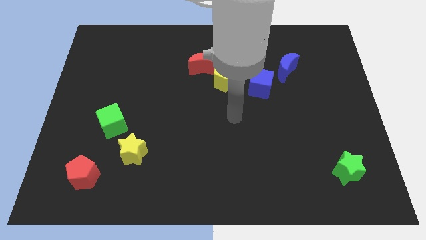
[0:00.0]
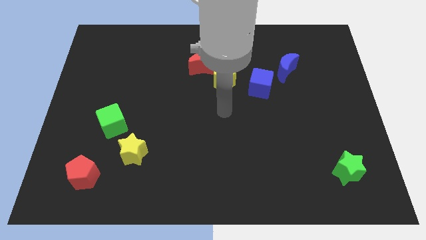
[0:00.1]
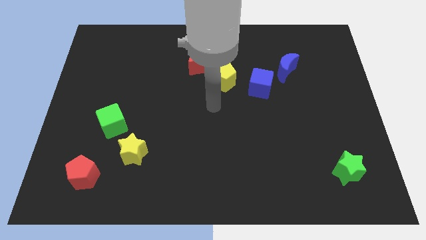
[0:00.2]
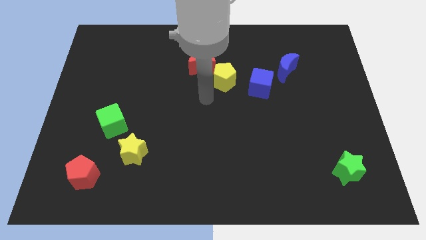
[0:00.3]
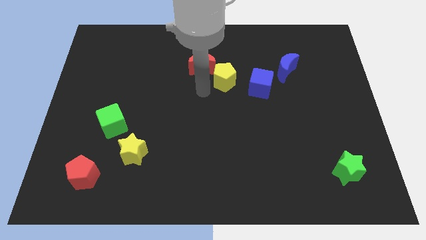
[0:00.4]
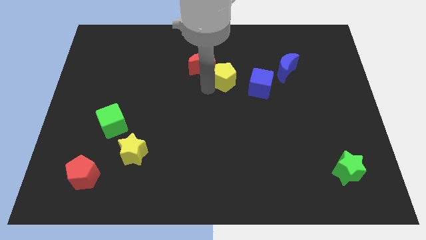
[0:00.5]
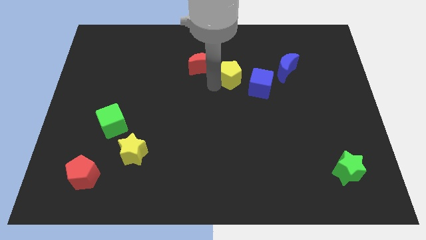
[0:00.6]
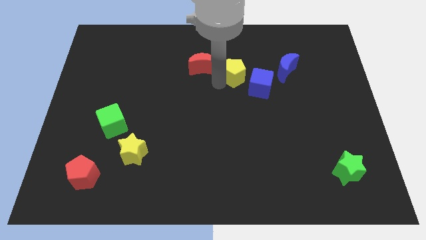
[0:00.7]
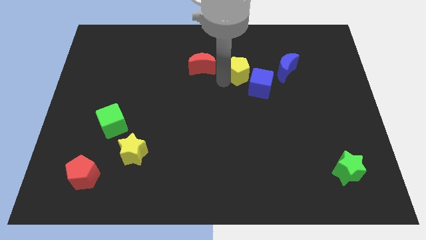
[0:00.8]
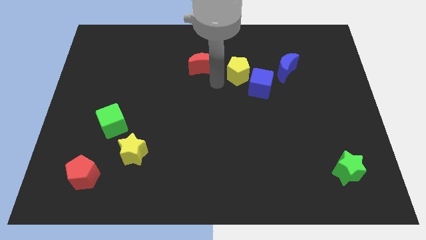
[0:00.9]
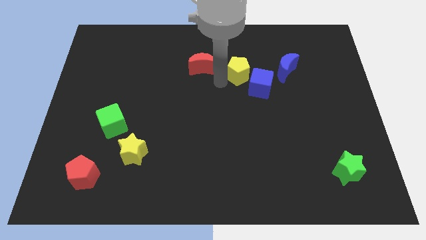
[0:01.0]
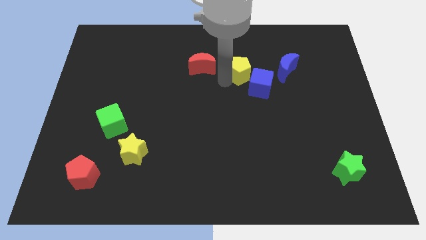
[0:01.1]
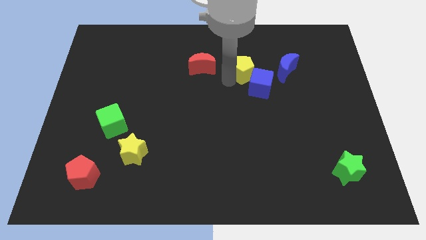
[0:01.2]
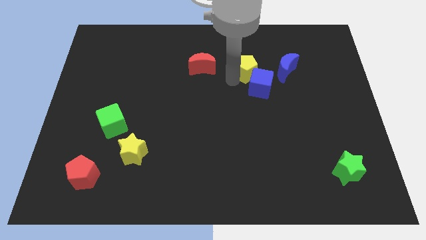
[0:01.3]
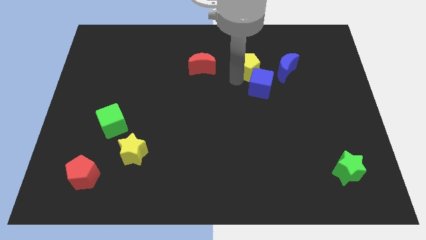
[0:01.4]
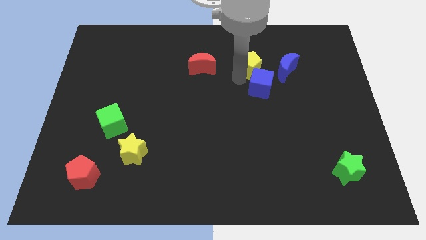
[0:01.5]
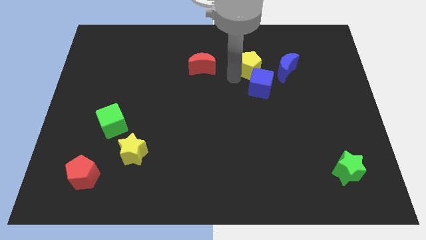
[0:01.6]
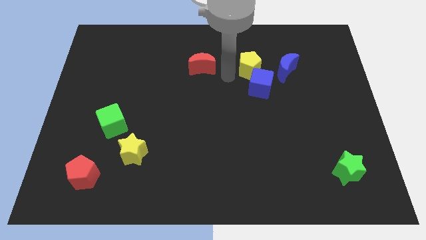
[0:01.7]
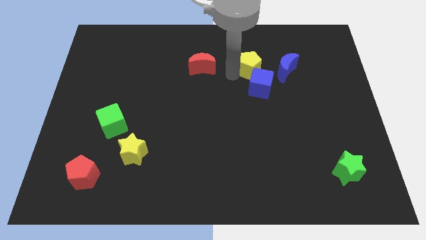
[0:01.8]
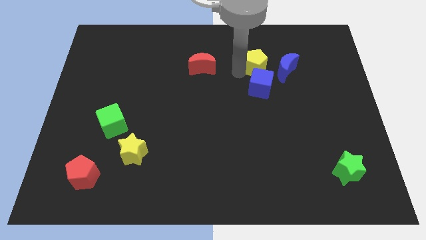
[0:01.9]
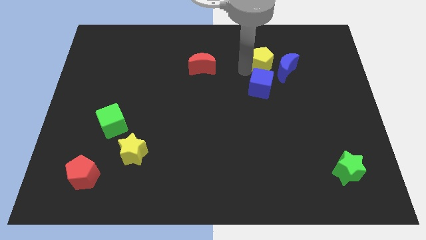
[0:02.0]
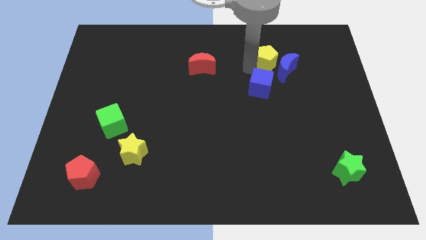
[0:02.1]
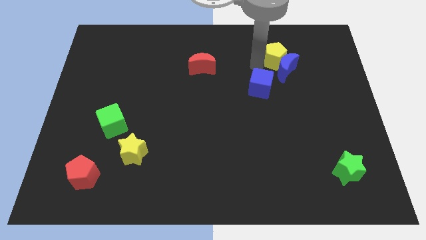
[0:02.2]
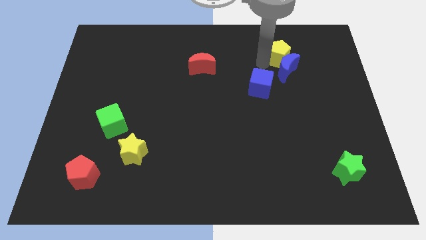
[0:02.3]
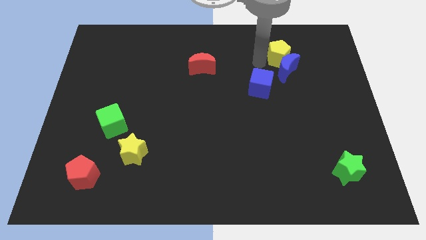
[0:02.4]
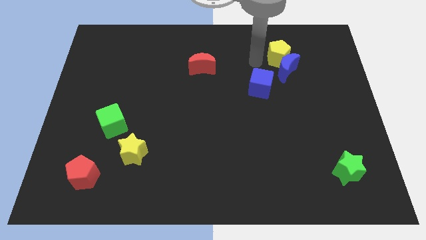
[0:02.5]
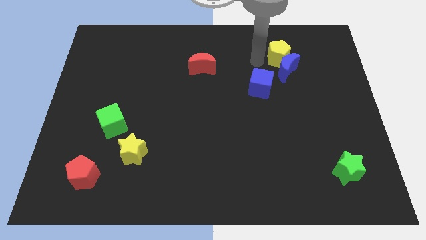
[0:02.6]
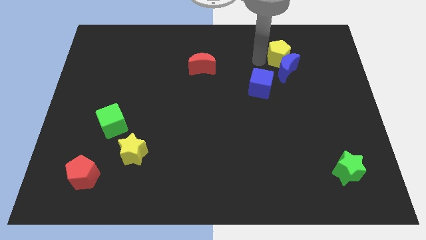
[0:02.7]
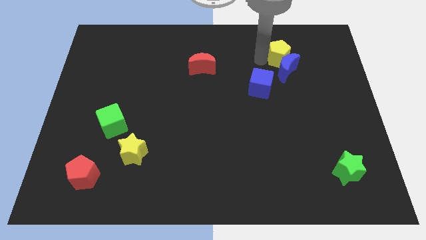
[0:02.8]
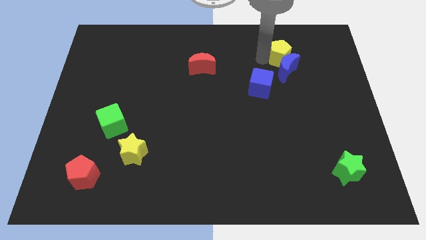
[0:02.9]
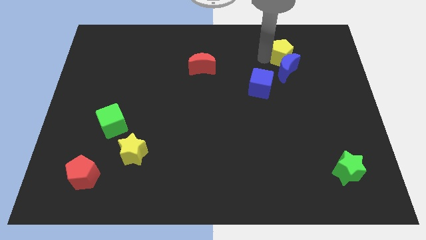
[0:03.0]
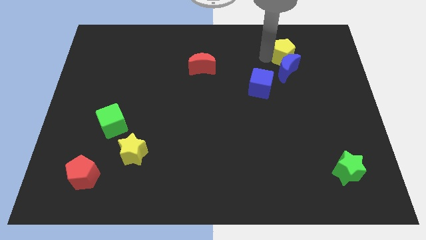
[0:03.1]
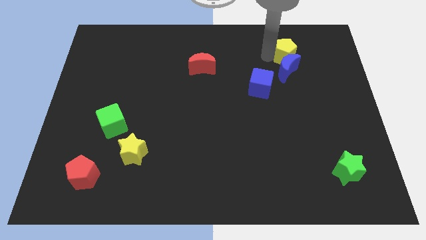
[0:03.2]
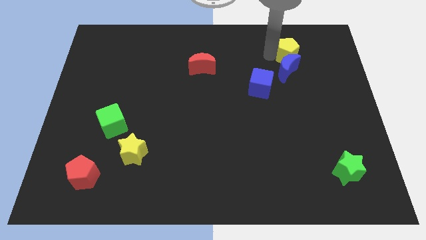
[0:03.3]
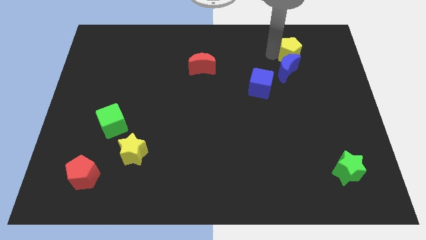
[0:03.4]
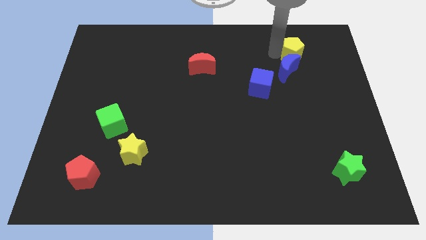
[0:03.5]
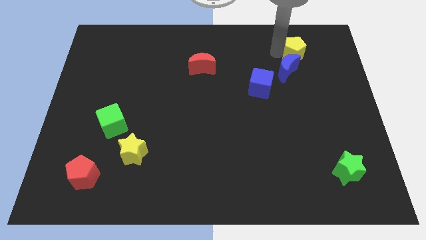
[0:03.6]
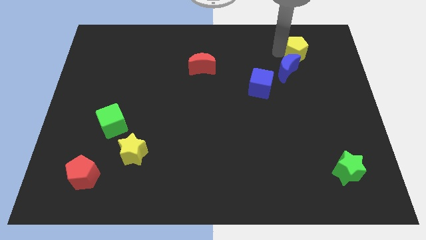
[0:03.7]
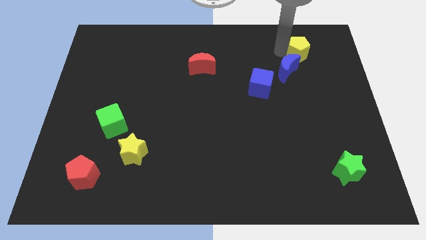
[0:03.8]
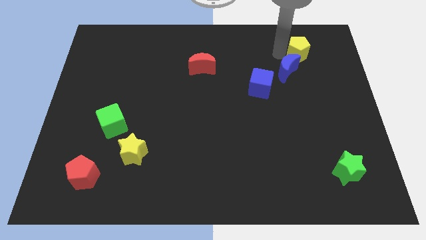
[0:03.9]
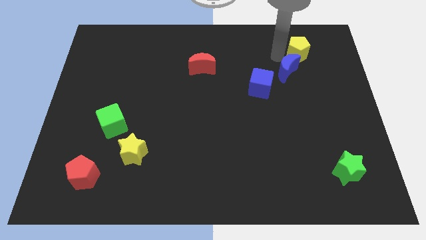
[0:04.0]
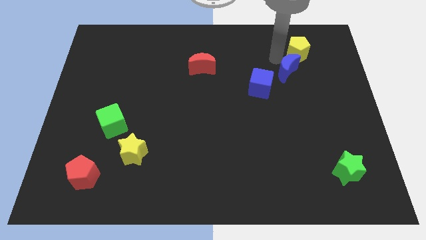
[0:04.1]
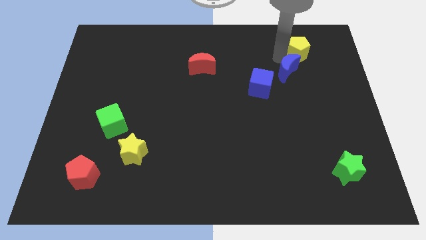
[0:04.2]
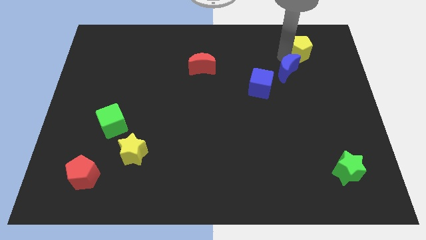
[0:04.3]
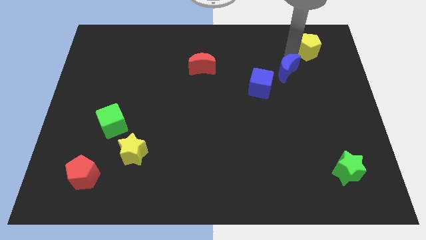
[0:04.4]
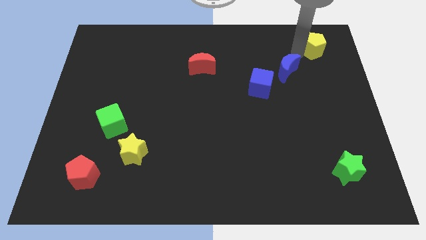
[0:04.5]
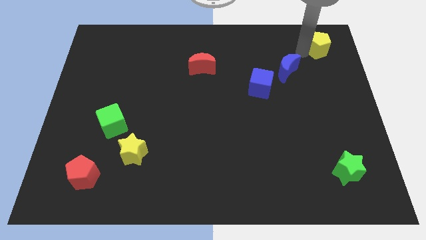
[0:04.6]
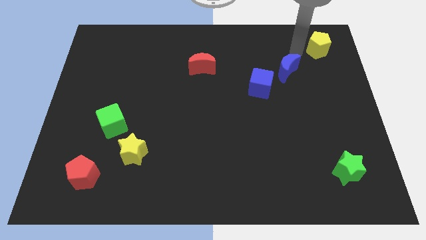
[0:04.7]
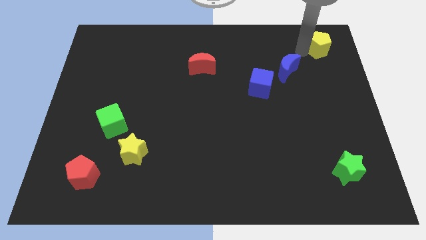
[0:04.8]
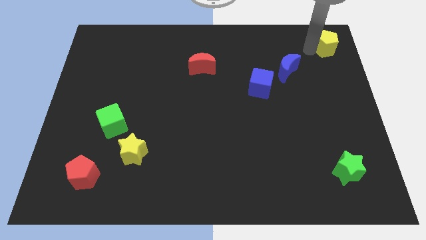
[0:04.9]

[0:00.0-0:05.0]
move the yellow pentagon to the top right of the board

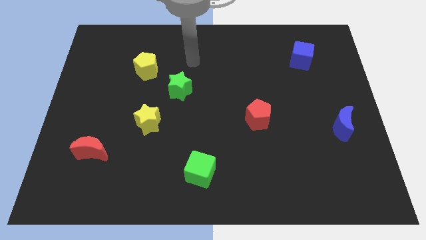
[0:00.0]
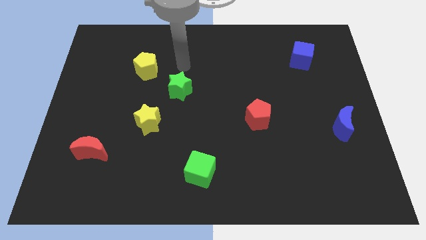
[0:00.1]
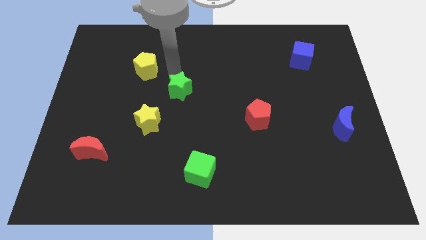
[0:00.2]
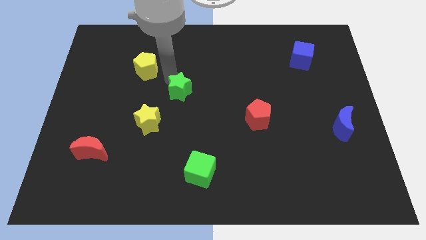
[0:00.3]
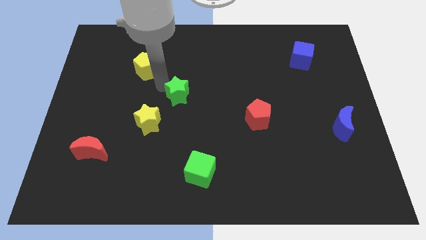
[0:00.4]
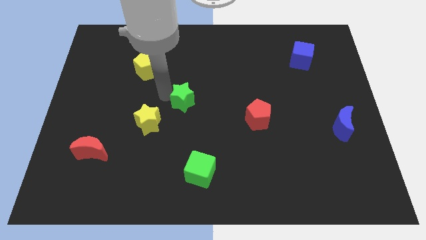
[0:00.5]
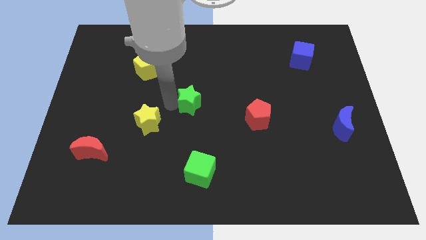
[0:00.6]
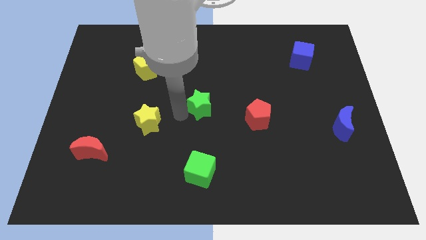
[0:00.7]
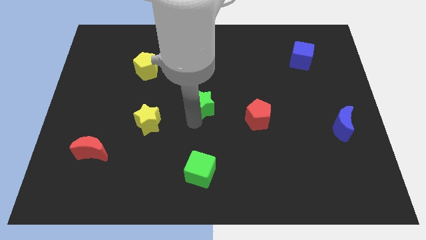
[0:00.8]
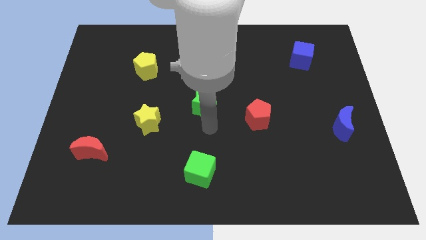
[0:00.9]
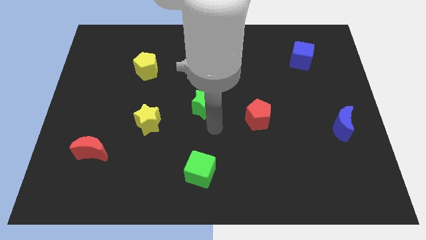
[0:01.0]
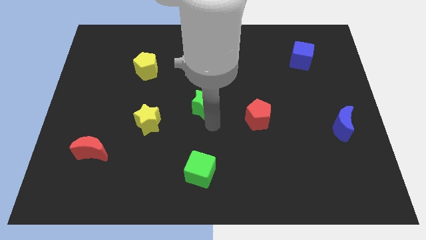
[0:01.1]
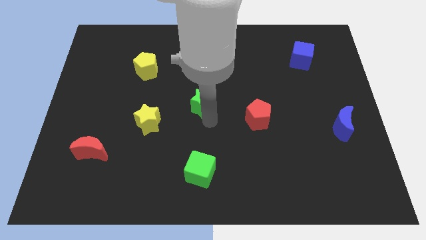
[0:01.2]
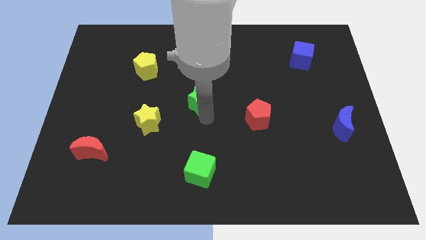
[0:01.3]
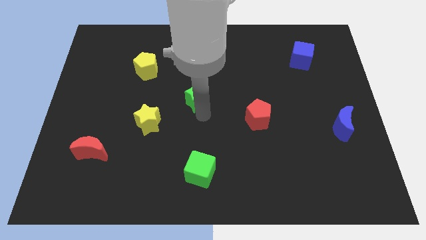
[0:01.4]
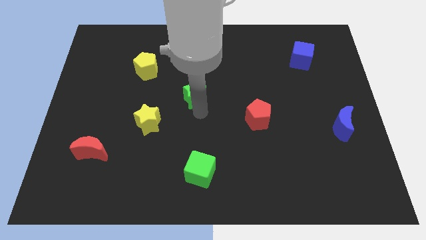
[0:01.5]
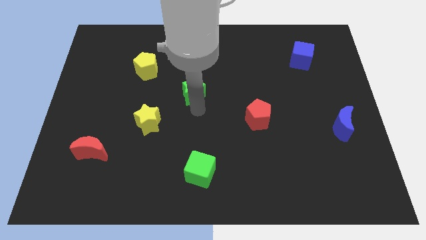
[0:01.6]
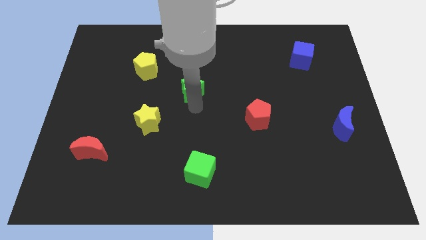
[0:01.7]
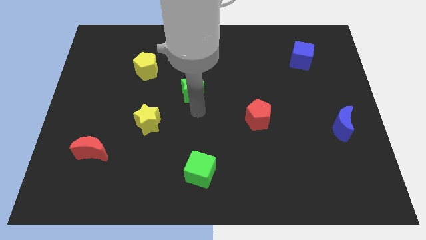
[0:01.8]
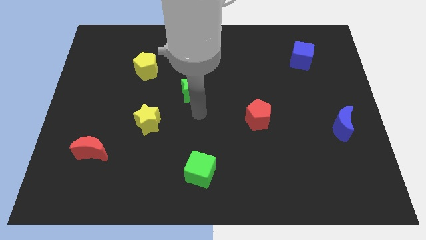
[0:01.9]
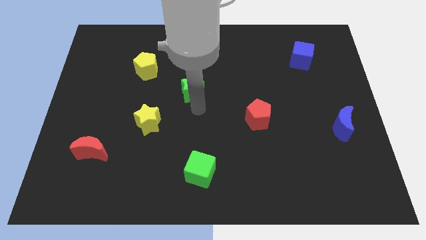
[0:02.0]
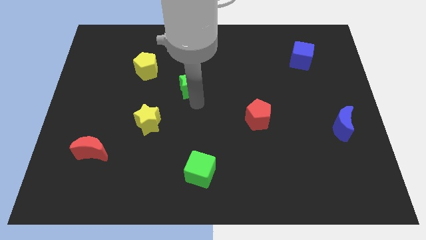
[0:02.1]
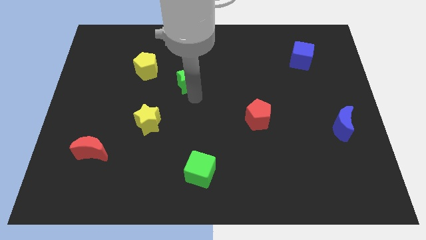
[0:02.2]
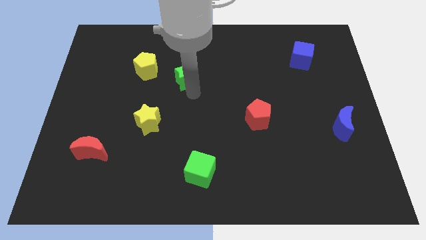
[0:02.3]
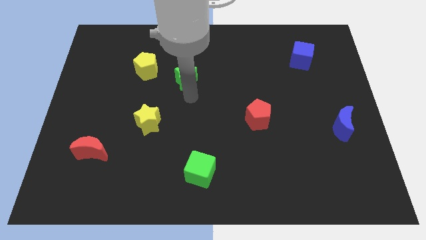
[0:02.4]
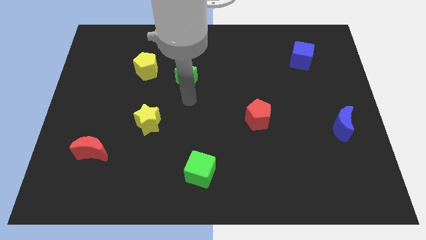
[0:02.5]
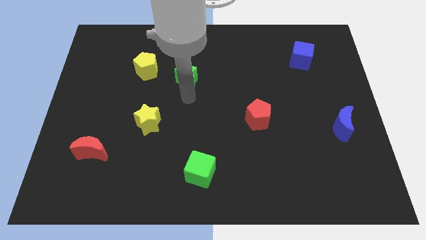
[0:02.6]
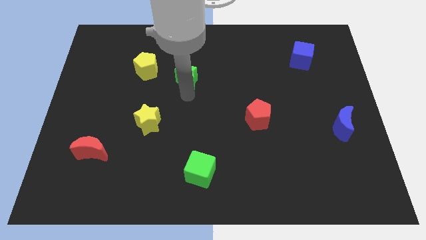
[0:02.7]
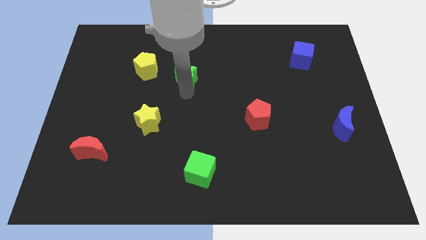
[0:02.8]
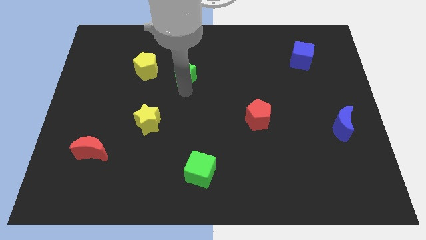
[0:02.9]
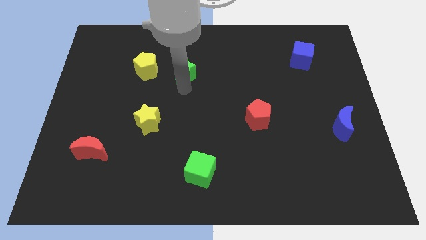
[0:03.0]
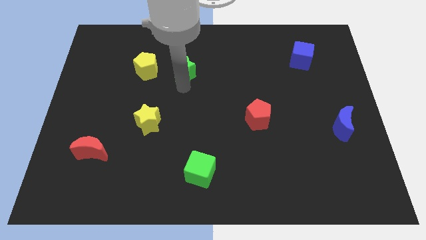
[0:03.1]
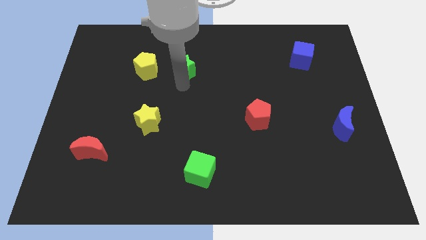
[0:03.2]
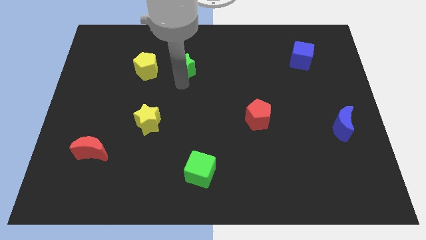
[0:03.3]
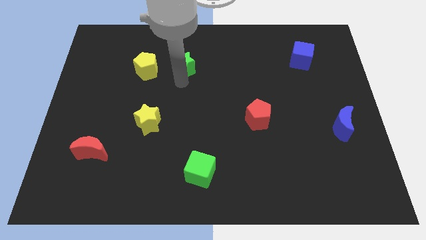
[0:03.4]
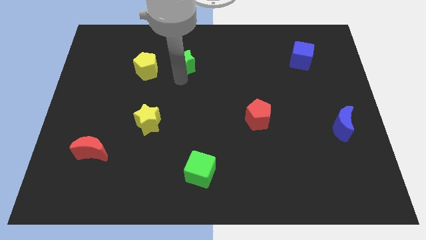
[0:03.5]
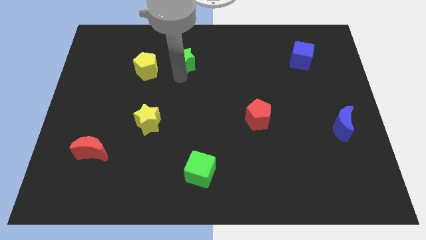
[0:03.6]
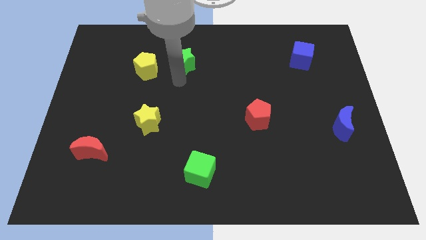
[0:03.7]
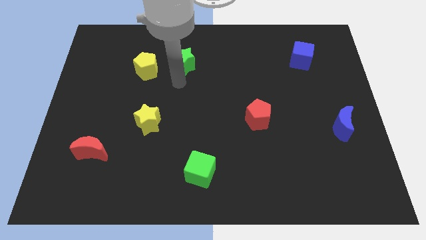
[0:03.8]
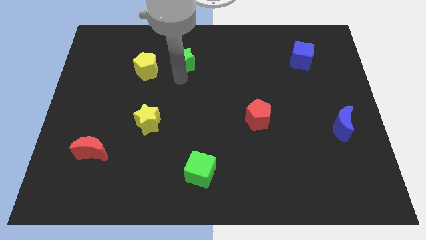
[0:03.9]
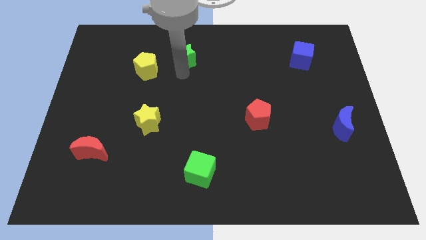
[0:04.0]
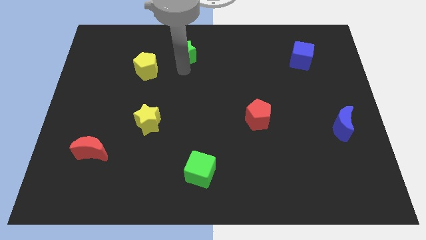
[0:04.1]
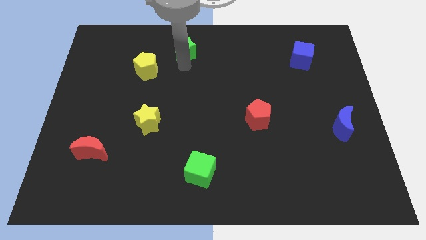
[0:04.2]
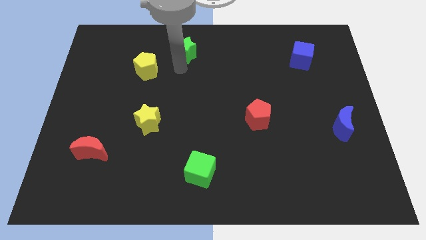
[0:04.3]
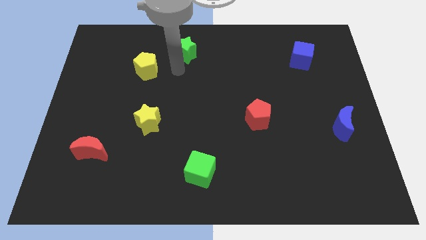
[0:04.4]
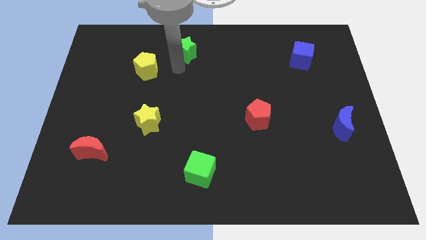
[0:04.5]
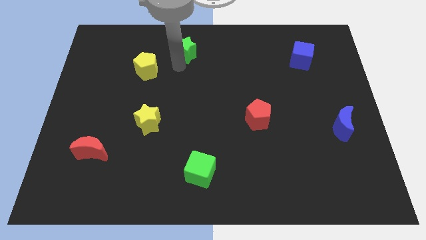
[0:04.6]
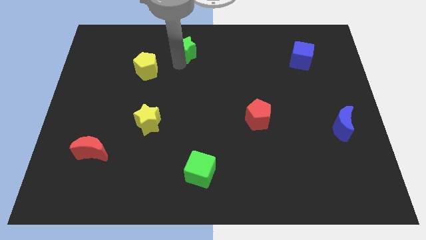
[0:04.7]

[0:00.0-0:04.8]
put the green star to the top side
